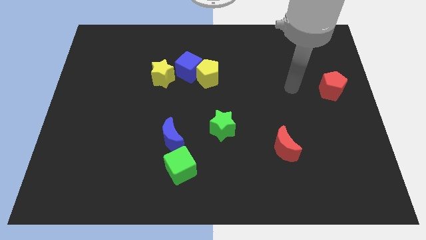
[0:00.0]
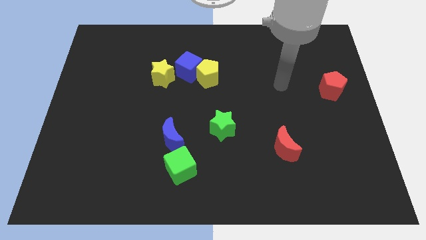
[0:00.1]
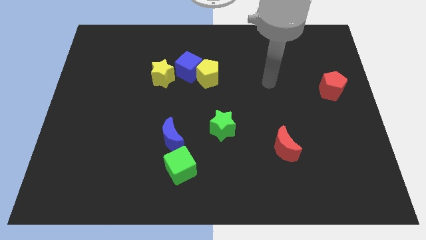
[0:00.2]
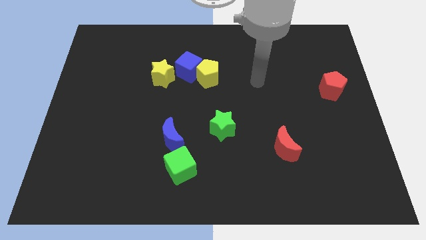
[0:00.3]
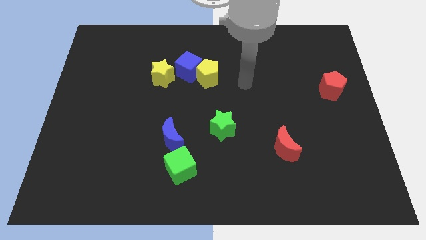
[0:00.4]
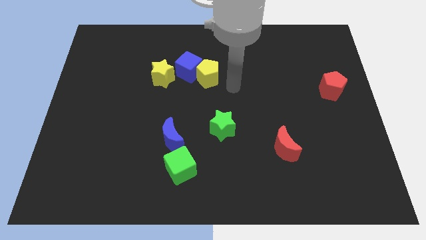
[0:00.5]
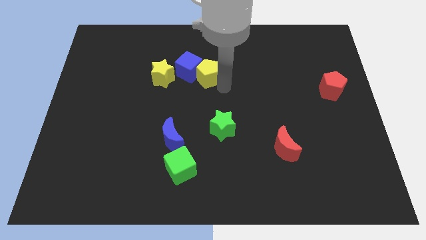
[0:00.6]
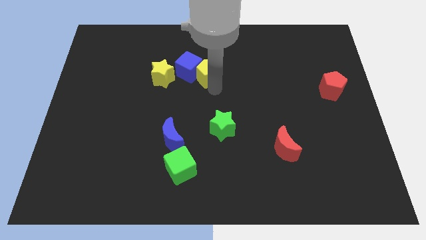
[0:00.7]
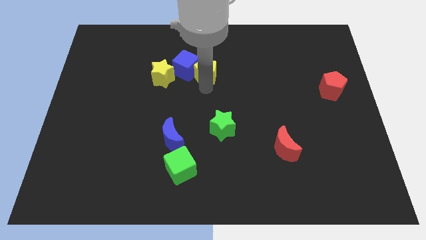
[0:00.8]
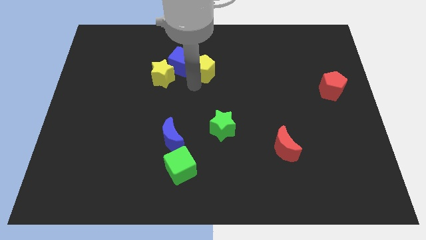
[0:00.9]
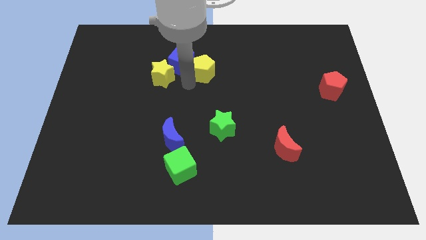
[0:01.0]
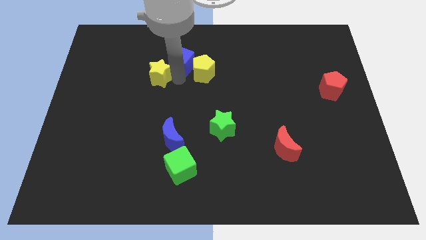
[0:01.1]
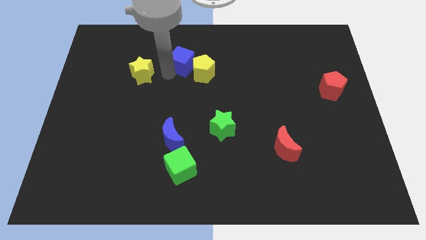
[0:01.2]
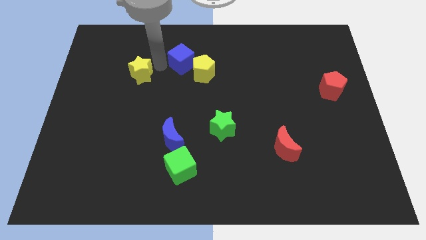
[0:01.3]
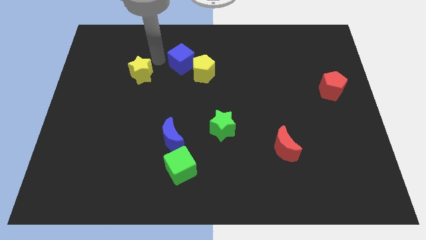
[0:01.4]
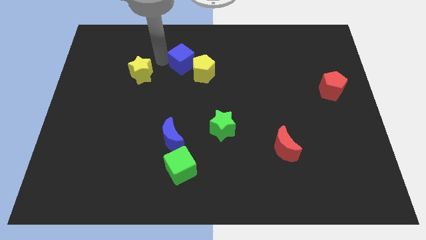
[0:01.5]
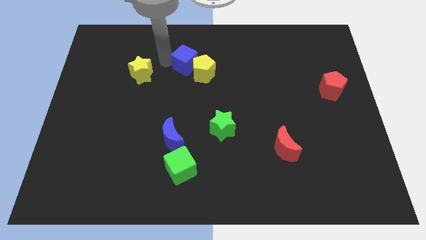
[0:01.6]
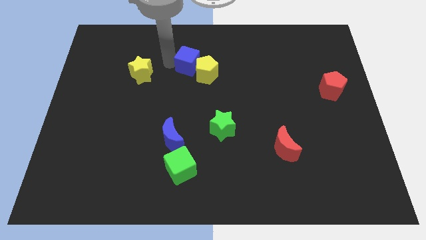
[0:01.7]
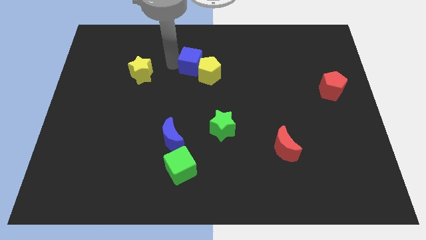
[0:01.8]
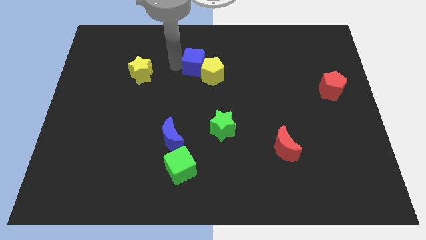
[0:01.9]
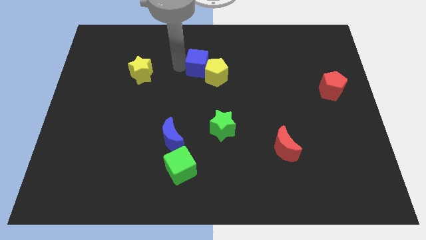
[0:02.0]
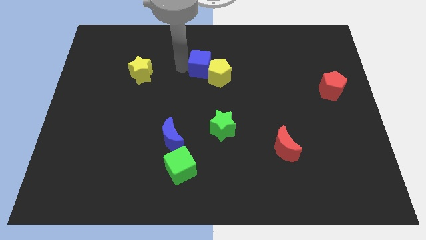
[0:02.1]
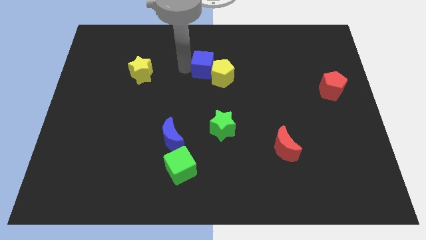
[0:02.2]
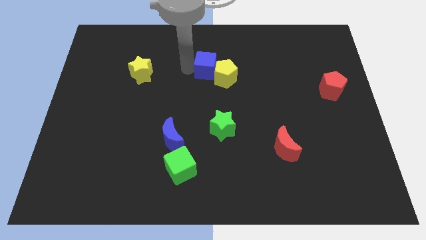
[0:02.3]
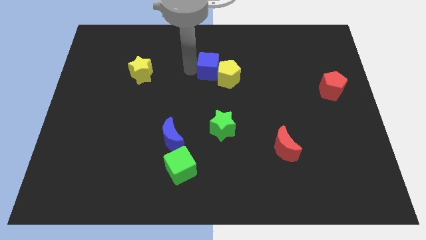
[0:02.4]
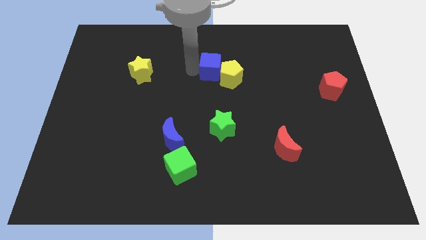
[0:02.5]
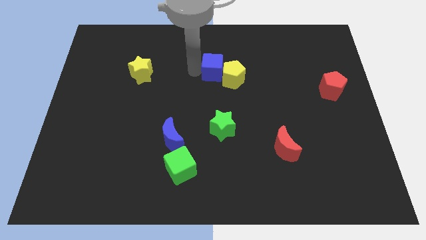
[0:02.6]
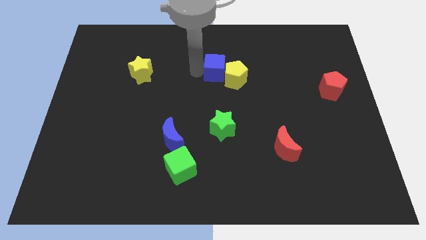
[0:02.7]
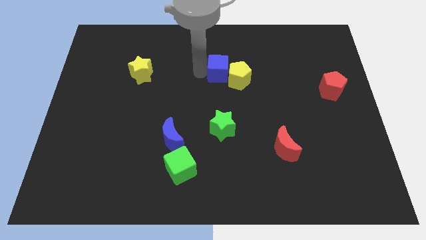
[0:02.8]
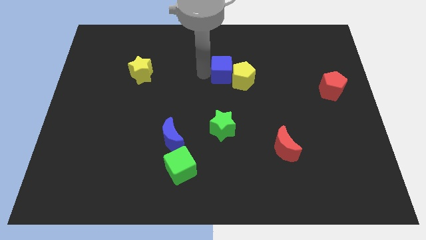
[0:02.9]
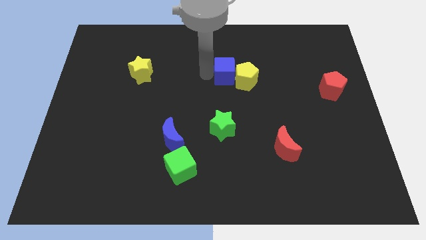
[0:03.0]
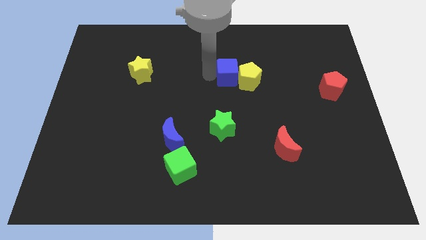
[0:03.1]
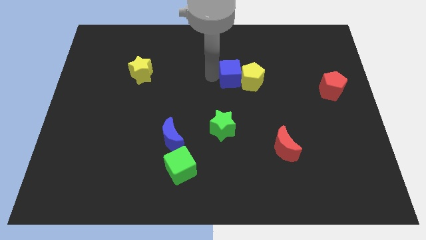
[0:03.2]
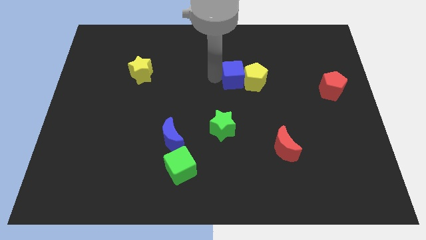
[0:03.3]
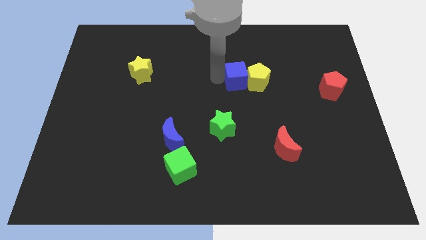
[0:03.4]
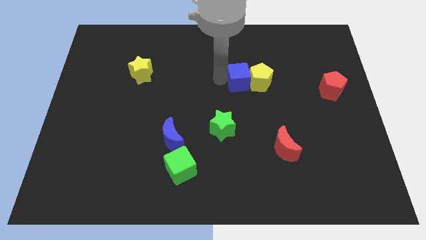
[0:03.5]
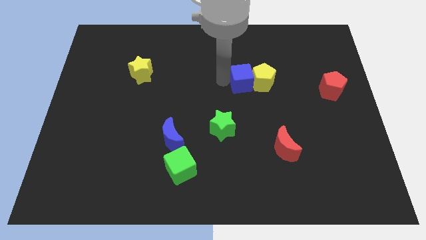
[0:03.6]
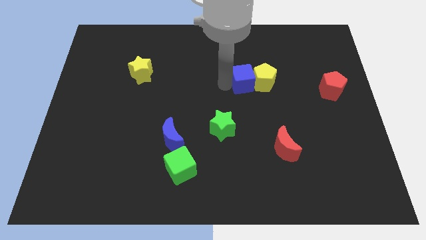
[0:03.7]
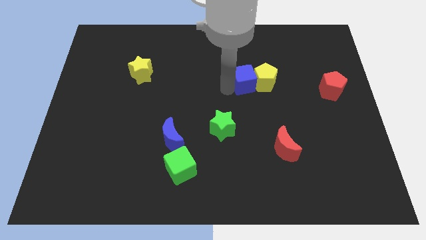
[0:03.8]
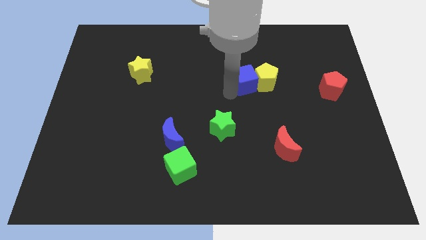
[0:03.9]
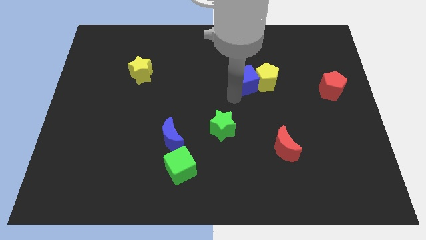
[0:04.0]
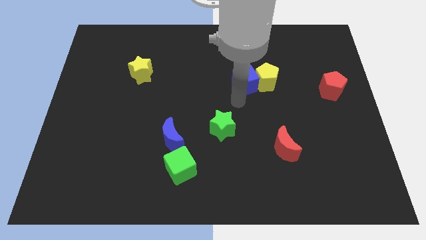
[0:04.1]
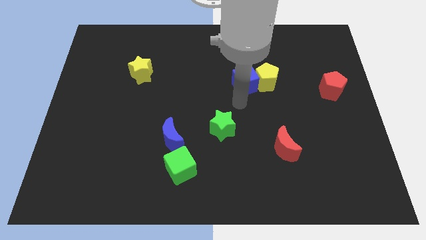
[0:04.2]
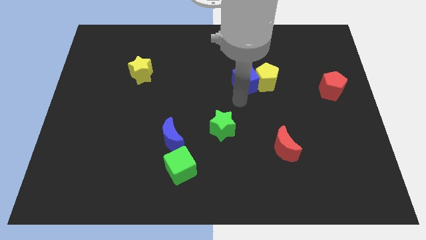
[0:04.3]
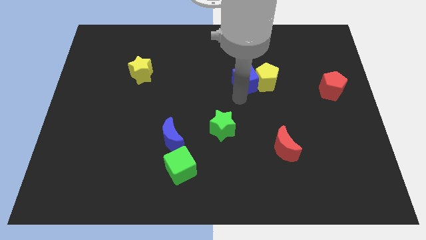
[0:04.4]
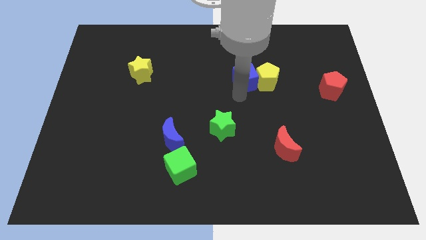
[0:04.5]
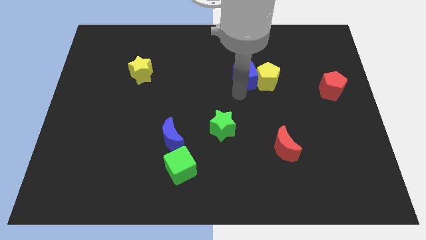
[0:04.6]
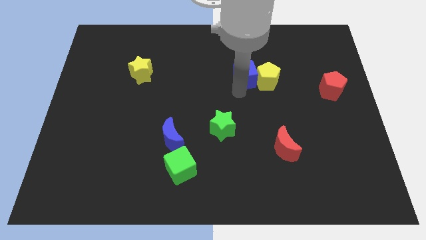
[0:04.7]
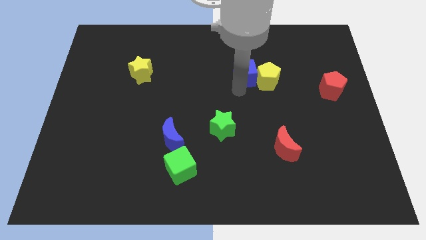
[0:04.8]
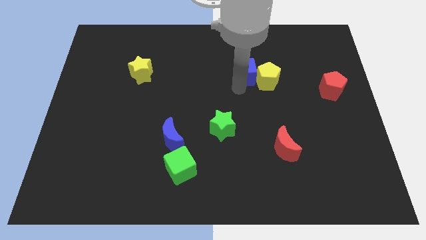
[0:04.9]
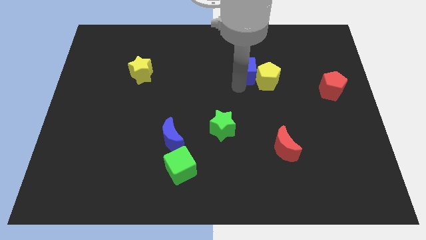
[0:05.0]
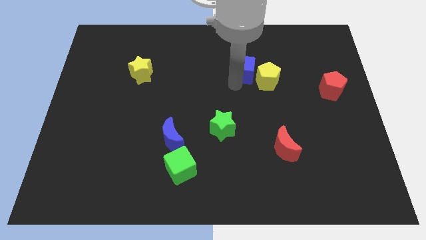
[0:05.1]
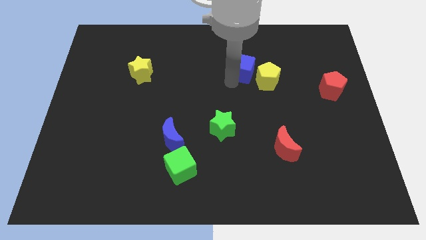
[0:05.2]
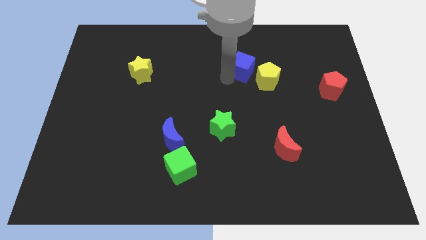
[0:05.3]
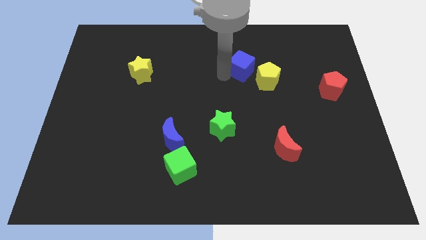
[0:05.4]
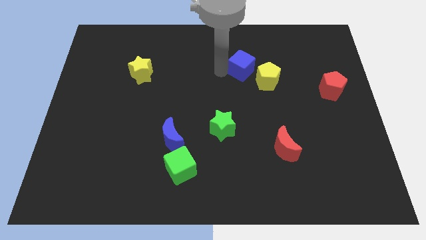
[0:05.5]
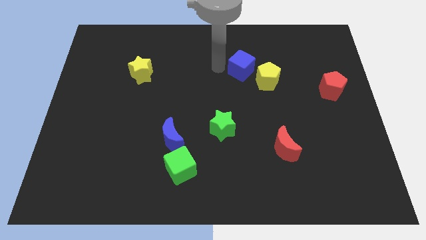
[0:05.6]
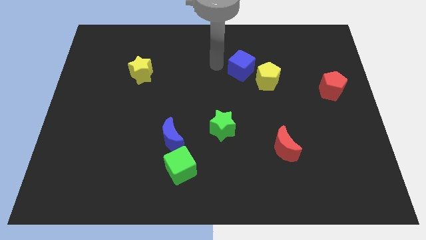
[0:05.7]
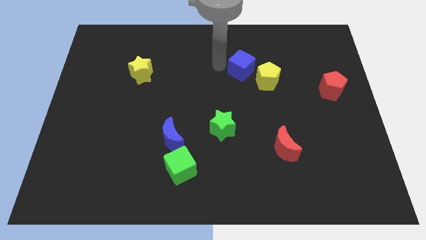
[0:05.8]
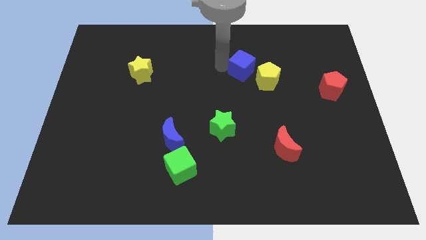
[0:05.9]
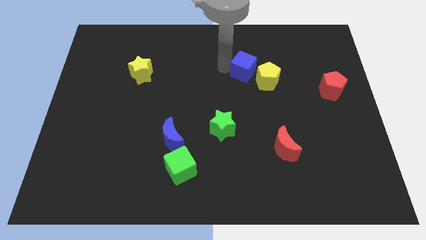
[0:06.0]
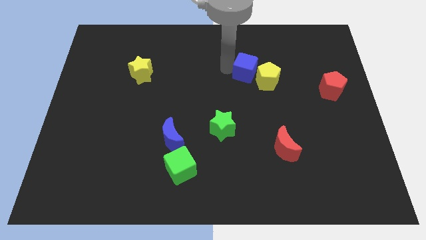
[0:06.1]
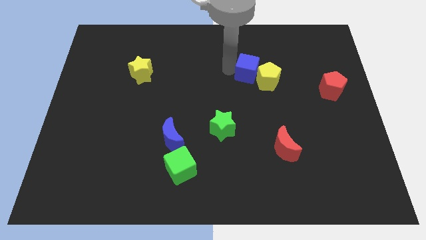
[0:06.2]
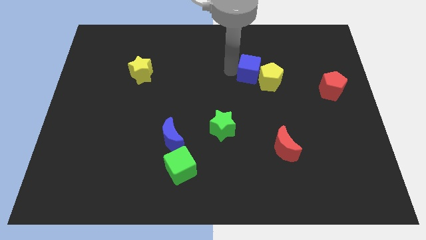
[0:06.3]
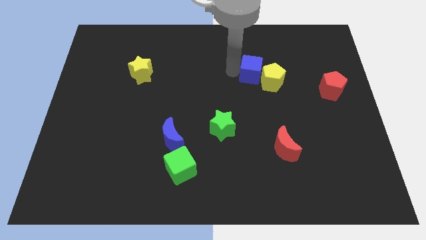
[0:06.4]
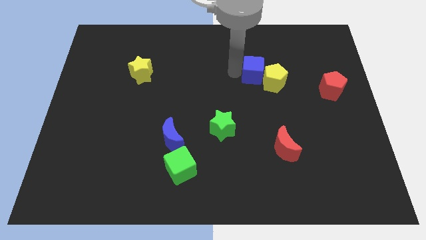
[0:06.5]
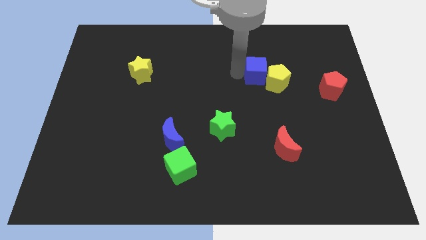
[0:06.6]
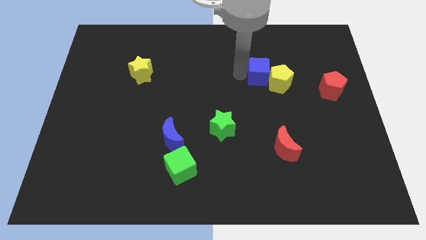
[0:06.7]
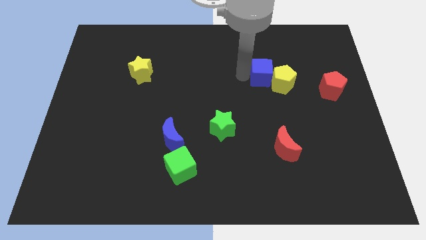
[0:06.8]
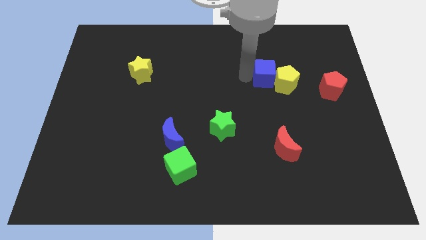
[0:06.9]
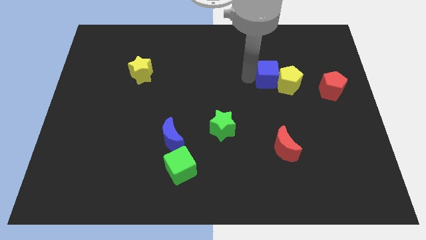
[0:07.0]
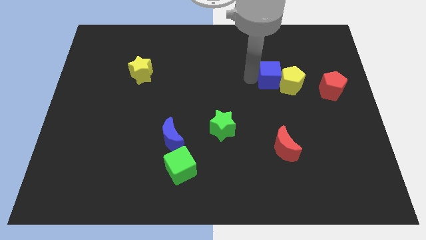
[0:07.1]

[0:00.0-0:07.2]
slide the blue cube right

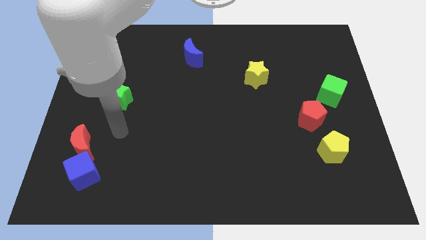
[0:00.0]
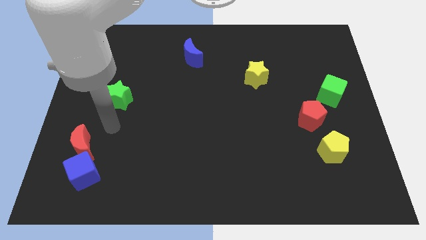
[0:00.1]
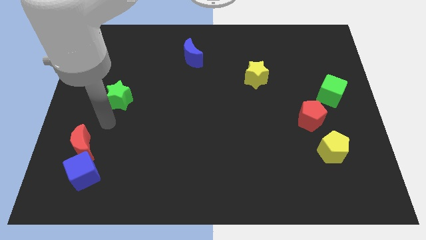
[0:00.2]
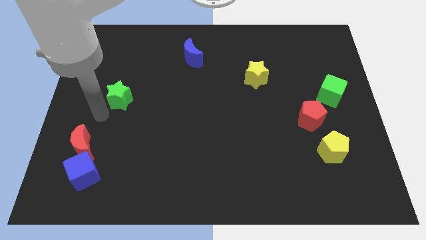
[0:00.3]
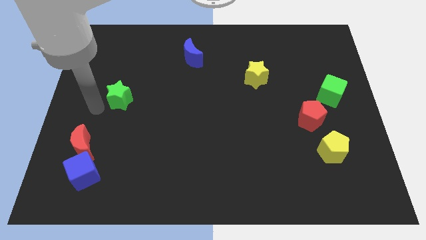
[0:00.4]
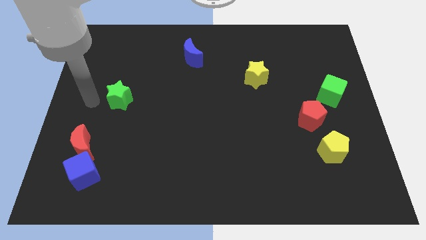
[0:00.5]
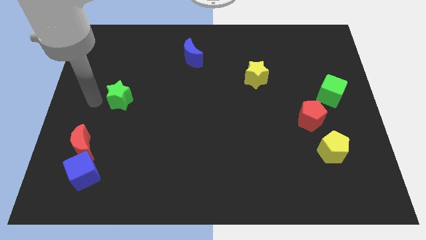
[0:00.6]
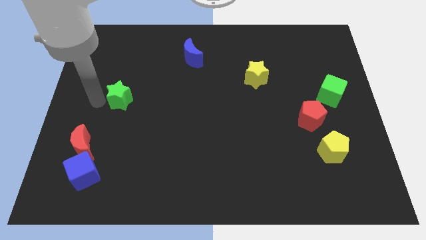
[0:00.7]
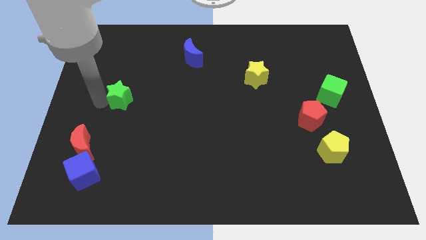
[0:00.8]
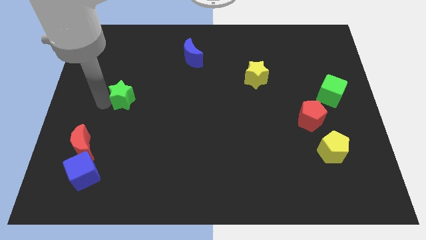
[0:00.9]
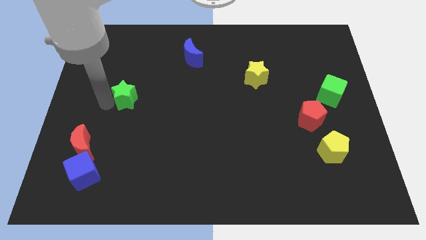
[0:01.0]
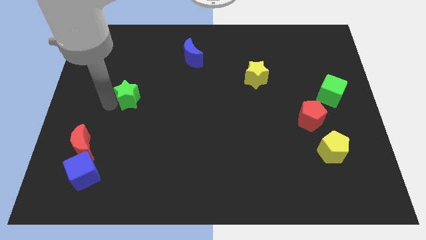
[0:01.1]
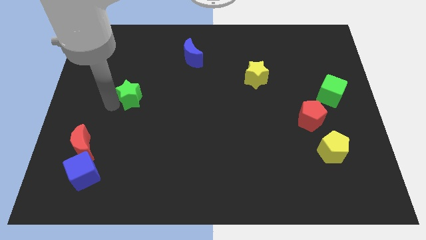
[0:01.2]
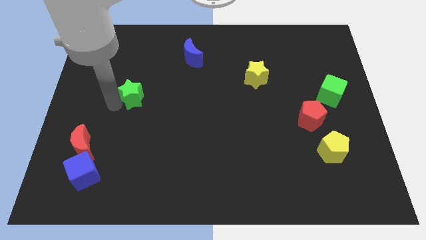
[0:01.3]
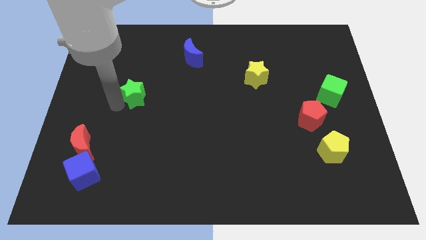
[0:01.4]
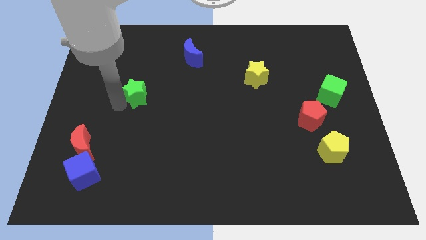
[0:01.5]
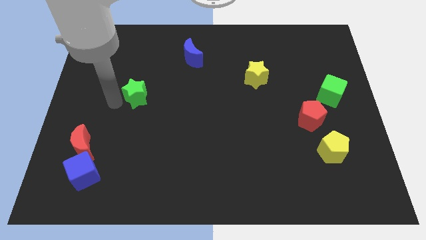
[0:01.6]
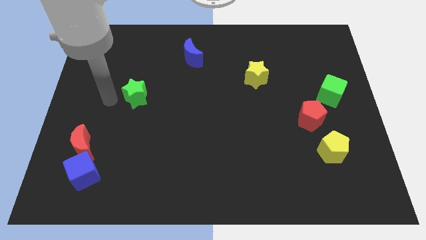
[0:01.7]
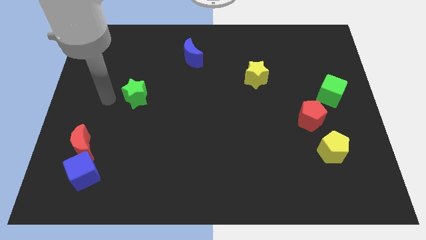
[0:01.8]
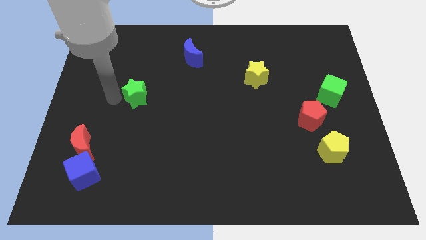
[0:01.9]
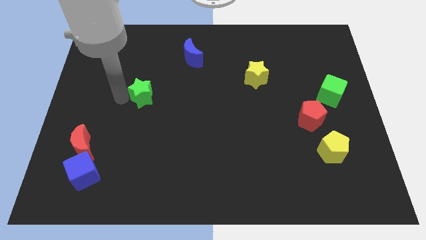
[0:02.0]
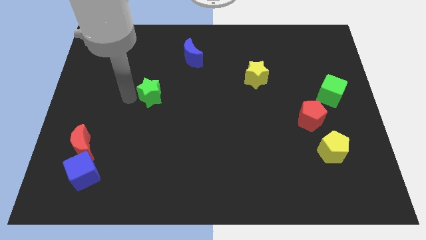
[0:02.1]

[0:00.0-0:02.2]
move the green star a little bit to the right
